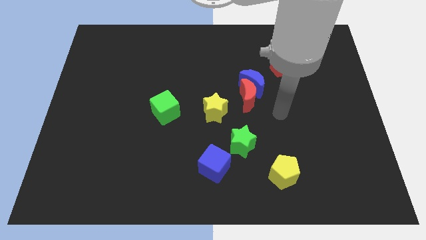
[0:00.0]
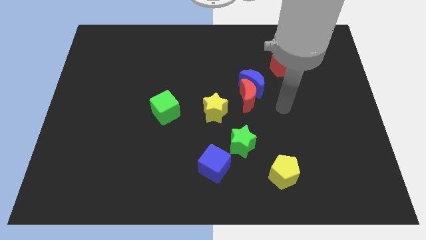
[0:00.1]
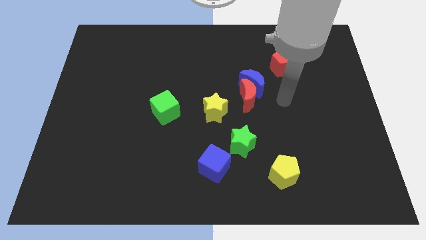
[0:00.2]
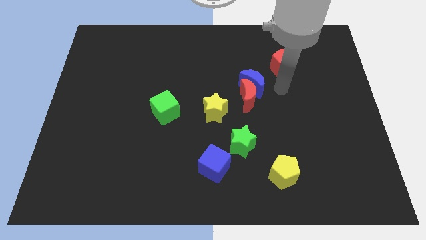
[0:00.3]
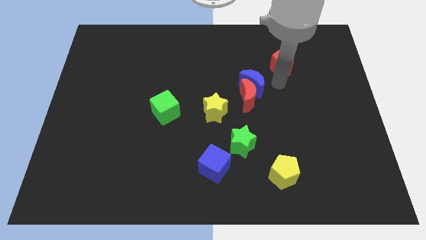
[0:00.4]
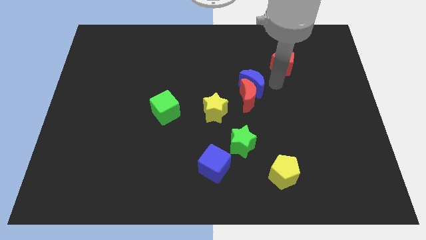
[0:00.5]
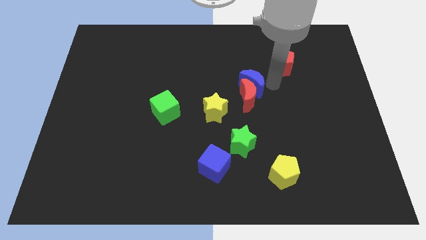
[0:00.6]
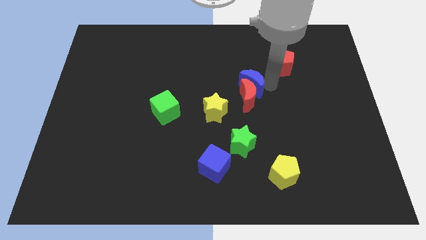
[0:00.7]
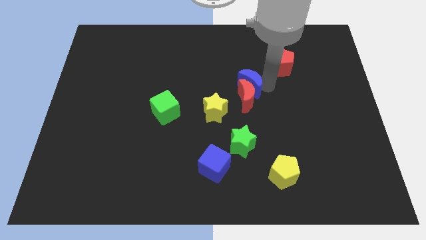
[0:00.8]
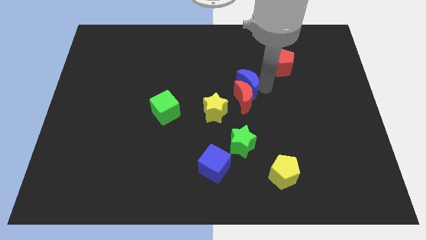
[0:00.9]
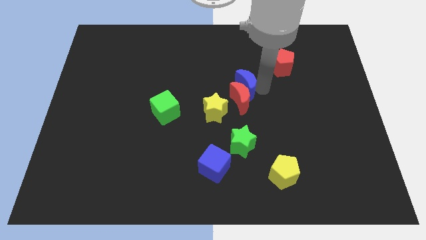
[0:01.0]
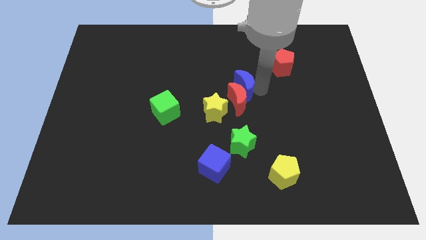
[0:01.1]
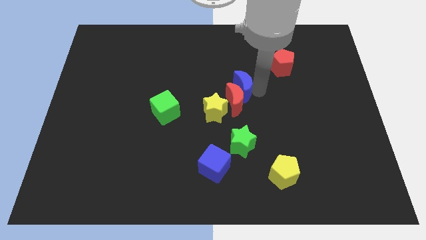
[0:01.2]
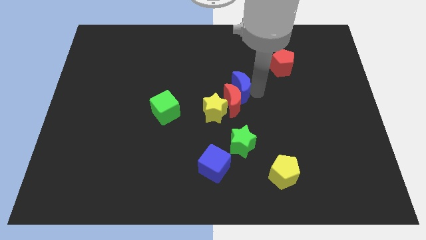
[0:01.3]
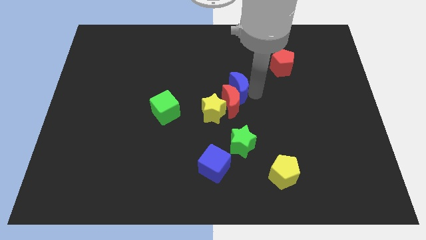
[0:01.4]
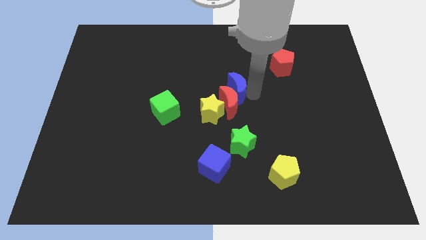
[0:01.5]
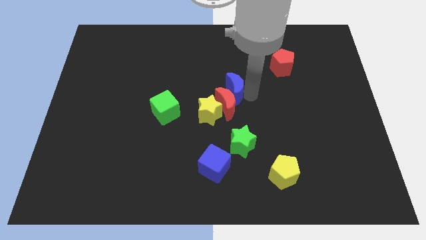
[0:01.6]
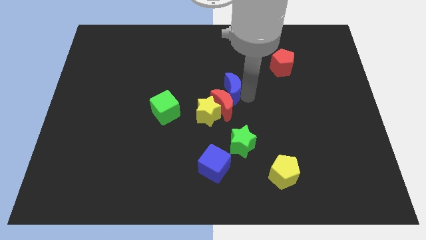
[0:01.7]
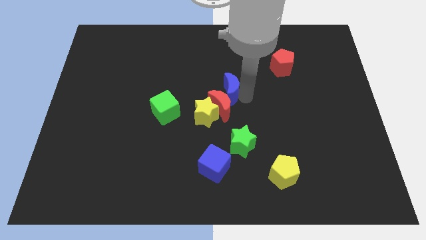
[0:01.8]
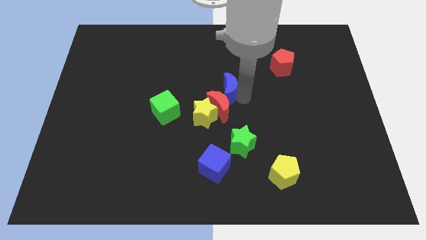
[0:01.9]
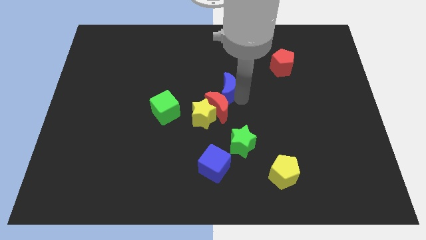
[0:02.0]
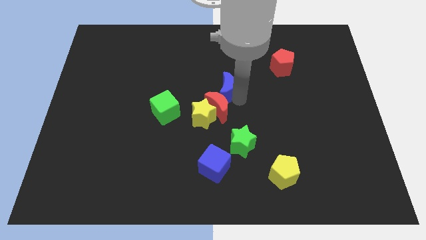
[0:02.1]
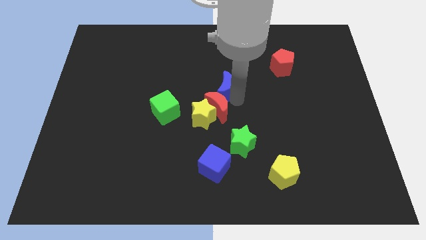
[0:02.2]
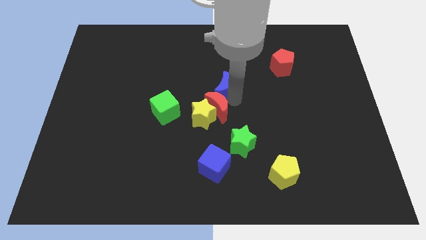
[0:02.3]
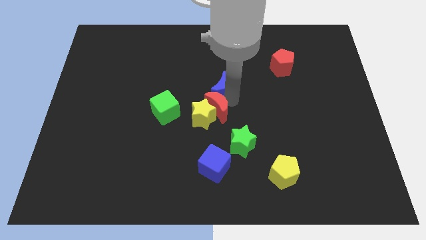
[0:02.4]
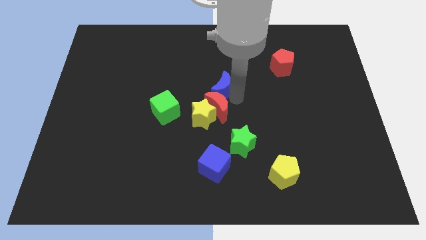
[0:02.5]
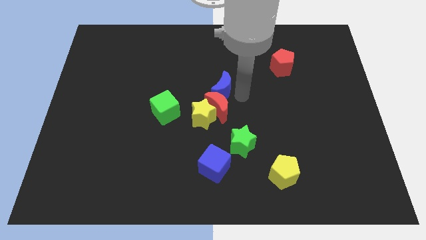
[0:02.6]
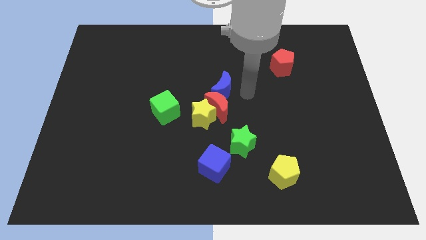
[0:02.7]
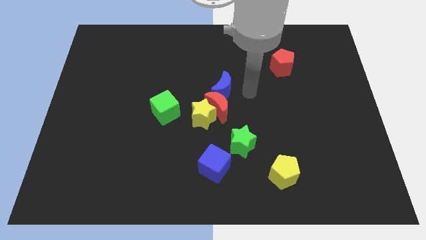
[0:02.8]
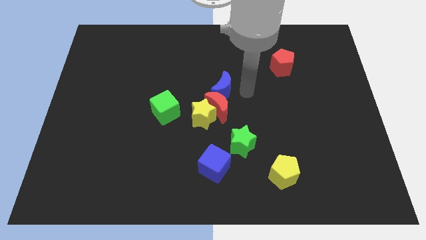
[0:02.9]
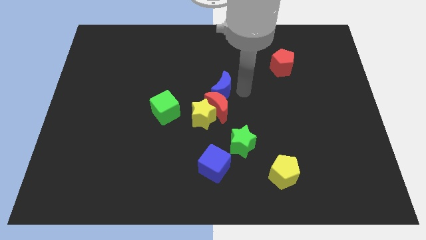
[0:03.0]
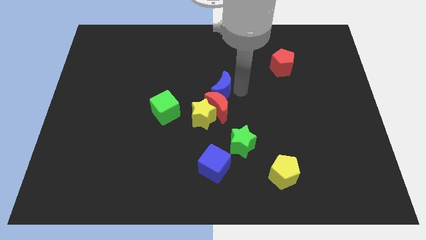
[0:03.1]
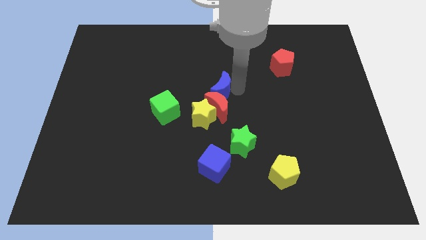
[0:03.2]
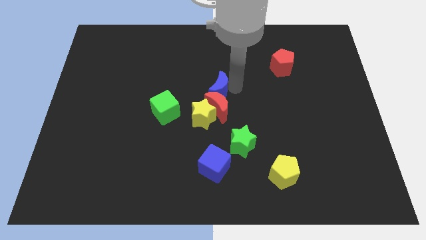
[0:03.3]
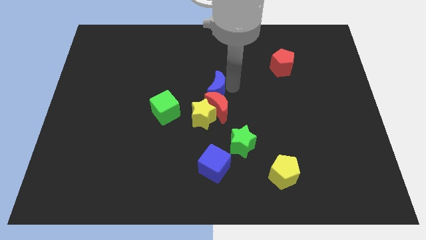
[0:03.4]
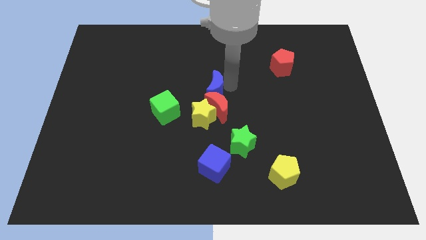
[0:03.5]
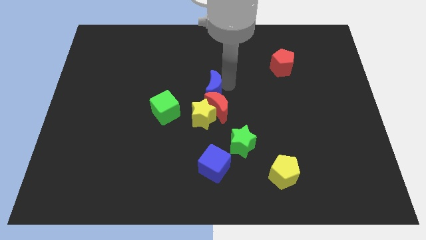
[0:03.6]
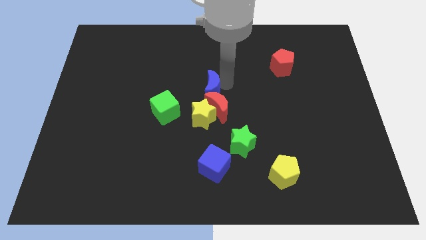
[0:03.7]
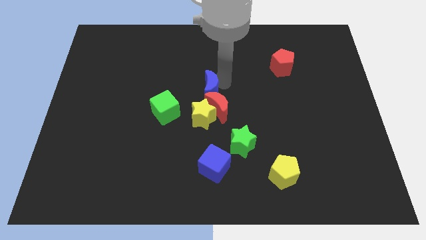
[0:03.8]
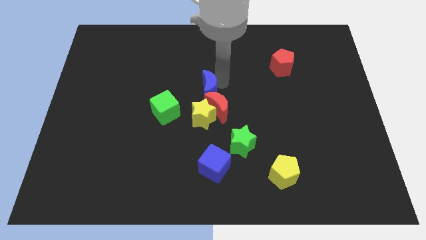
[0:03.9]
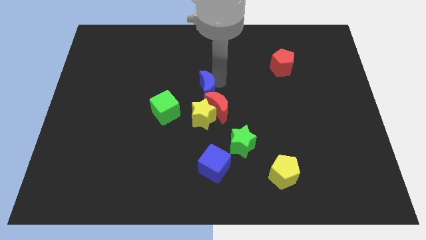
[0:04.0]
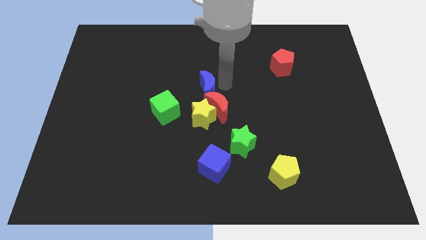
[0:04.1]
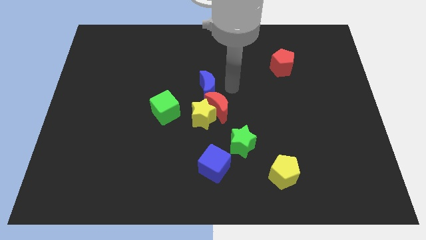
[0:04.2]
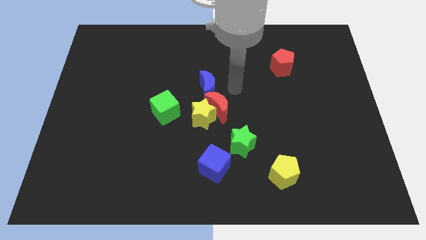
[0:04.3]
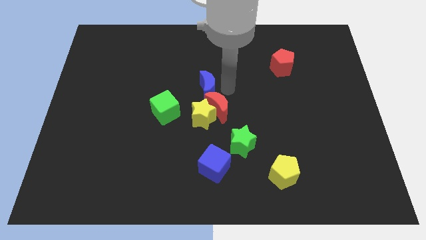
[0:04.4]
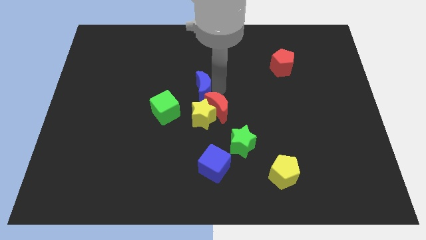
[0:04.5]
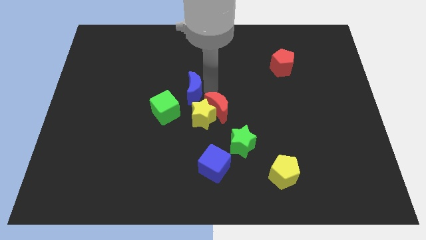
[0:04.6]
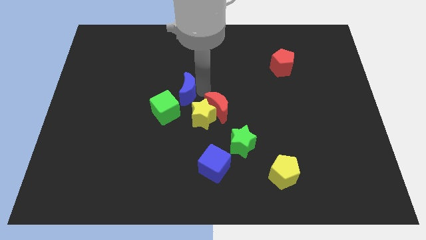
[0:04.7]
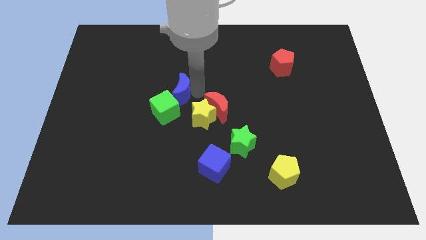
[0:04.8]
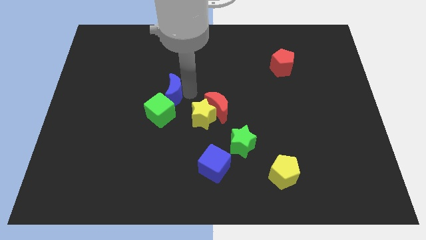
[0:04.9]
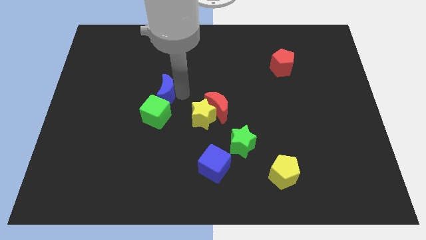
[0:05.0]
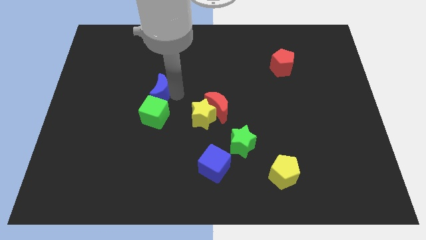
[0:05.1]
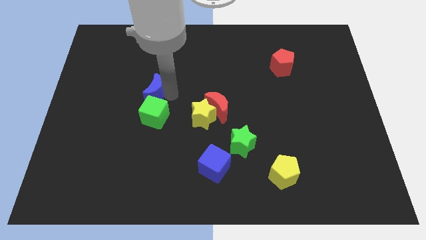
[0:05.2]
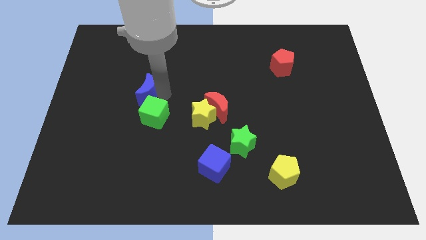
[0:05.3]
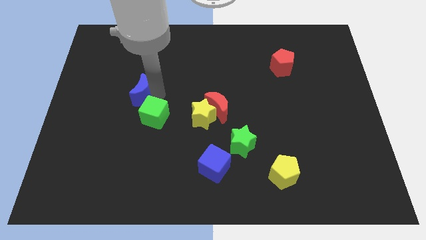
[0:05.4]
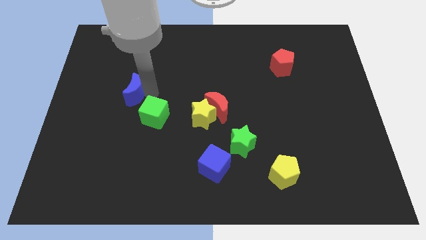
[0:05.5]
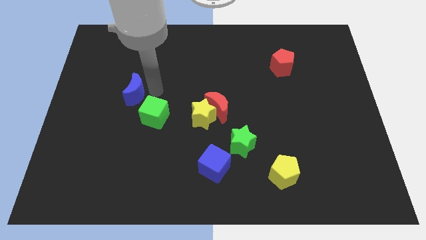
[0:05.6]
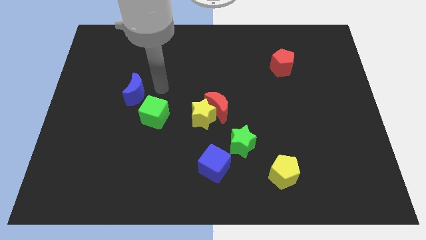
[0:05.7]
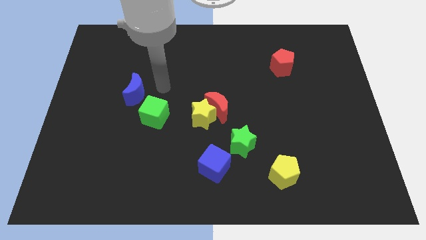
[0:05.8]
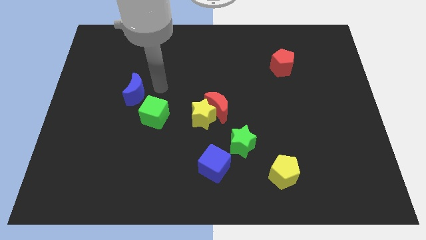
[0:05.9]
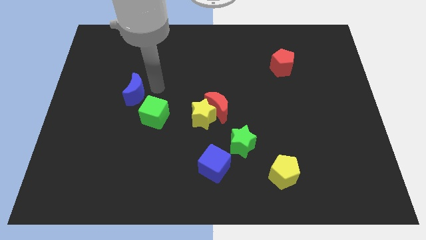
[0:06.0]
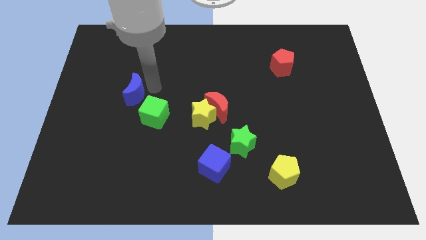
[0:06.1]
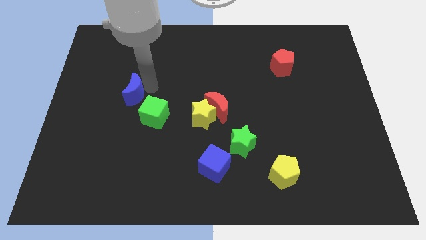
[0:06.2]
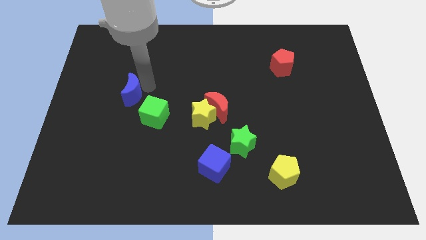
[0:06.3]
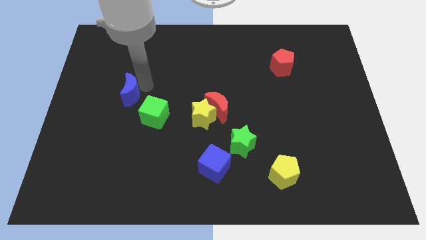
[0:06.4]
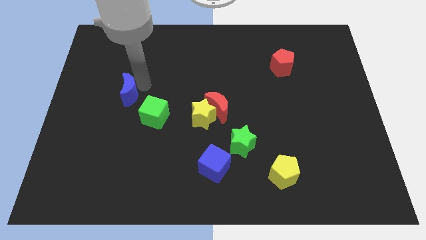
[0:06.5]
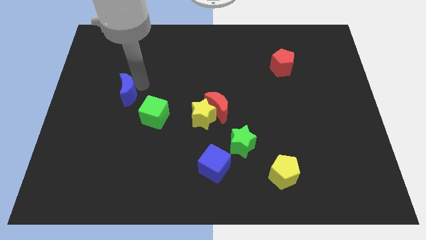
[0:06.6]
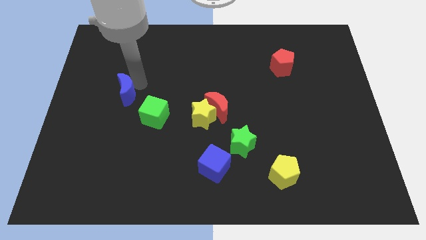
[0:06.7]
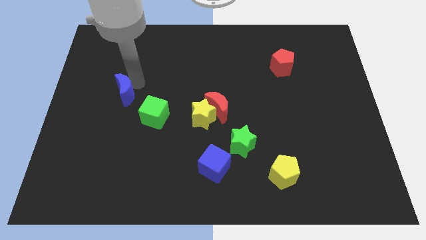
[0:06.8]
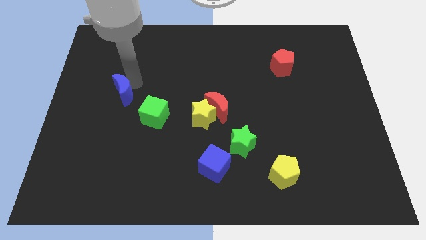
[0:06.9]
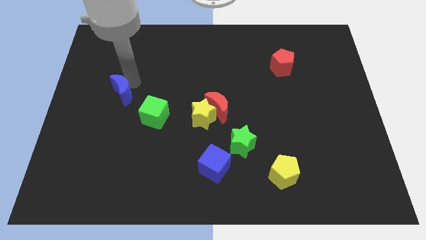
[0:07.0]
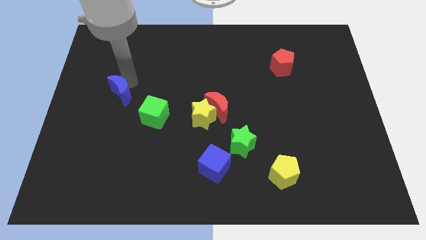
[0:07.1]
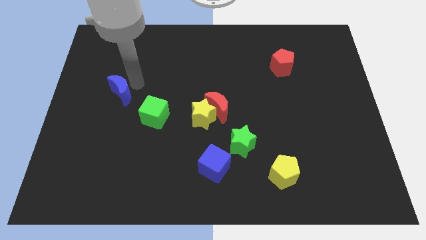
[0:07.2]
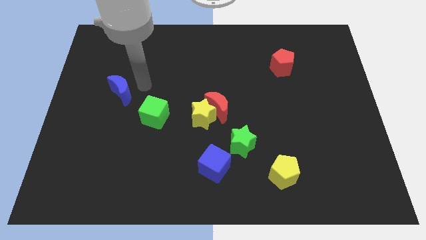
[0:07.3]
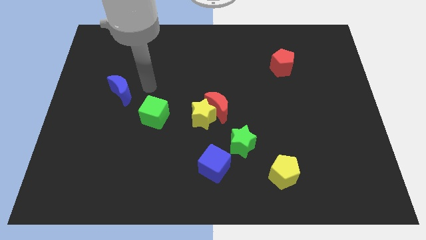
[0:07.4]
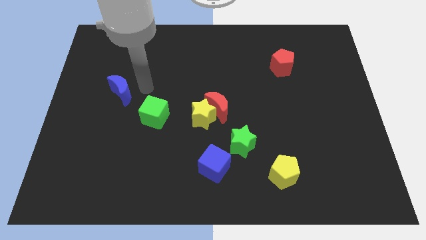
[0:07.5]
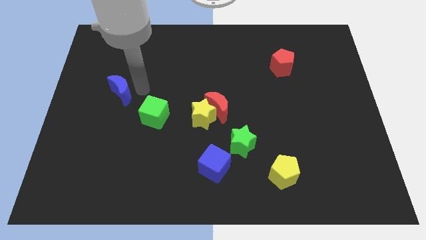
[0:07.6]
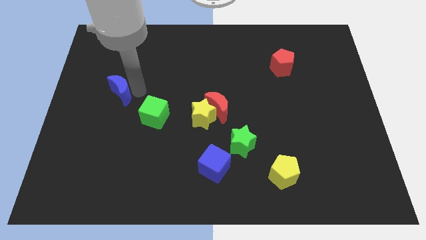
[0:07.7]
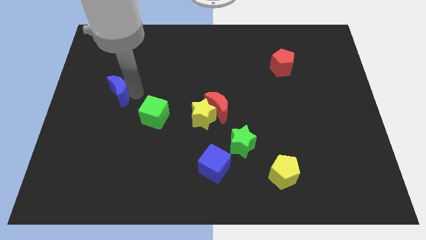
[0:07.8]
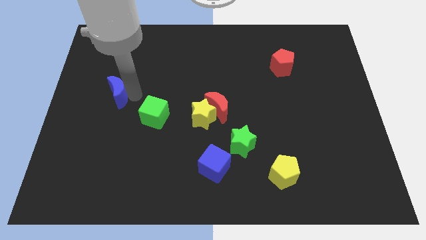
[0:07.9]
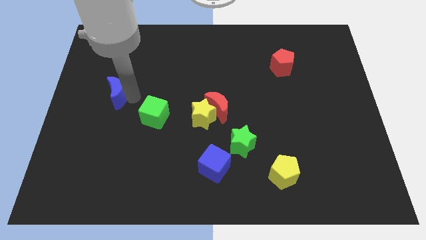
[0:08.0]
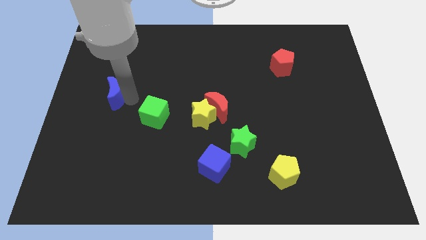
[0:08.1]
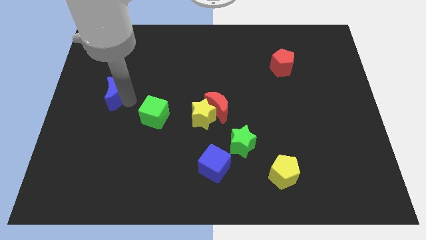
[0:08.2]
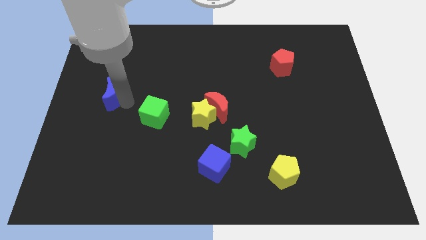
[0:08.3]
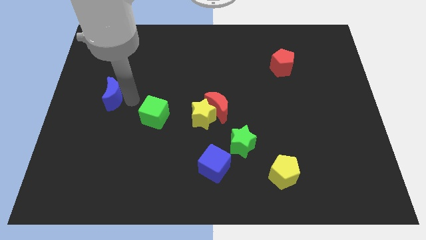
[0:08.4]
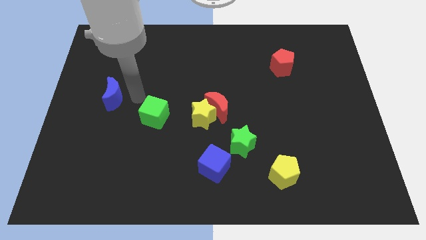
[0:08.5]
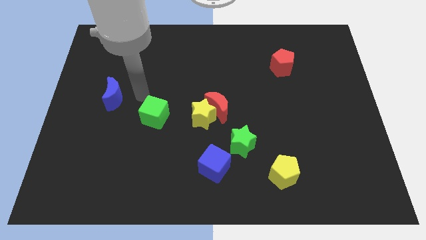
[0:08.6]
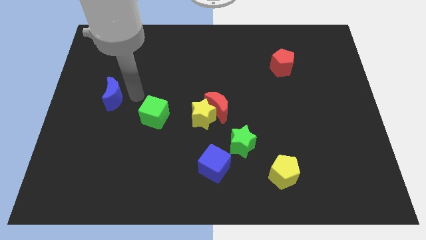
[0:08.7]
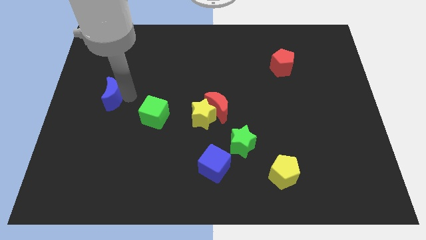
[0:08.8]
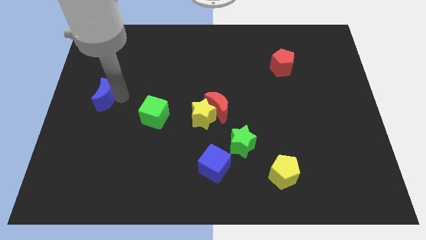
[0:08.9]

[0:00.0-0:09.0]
move the blue moon to the center left
